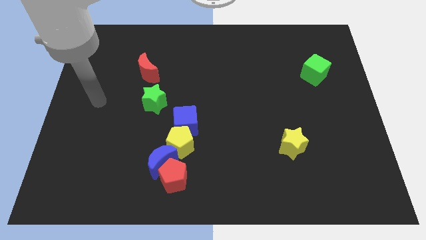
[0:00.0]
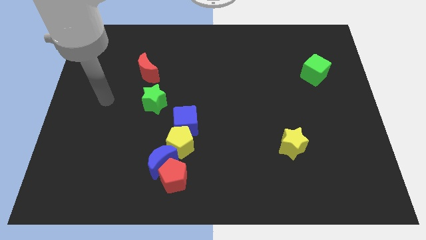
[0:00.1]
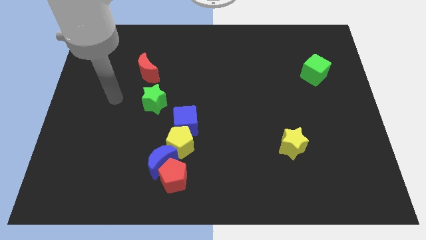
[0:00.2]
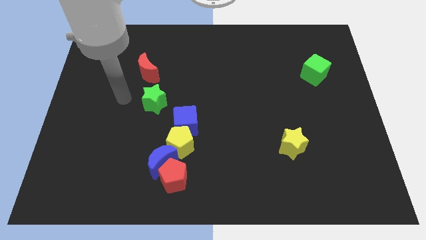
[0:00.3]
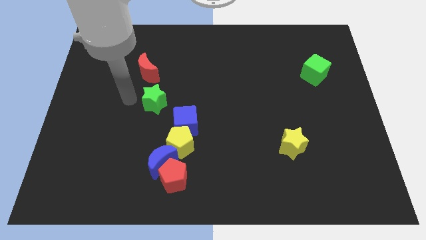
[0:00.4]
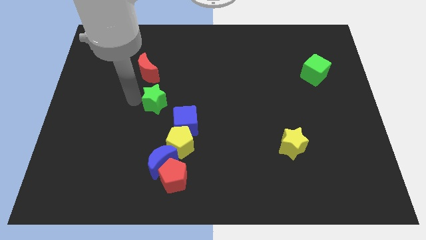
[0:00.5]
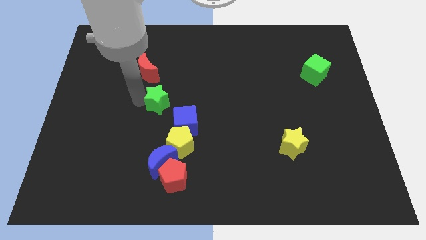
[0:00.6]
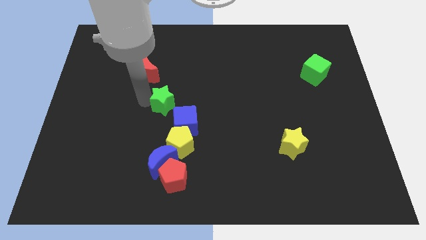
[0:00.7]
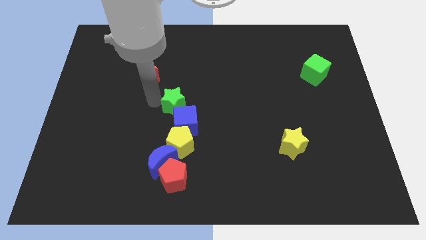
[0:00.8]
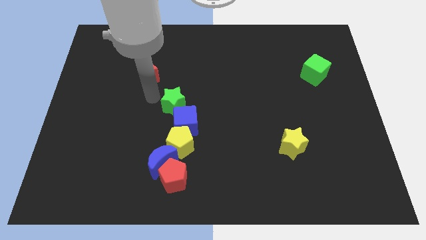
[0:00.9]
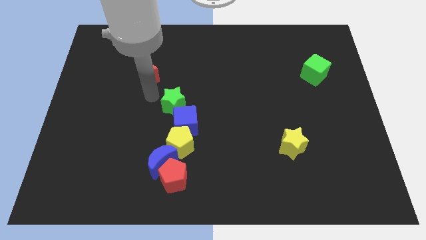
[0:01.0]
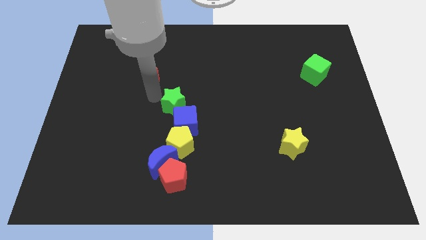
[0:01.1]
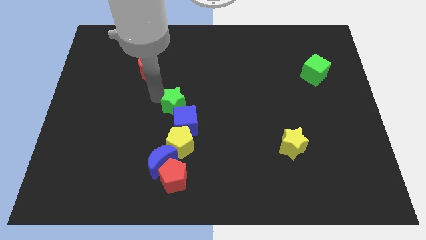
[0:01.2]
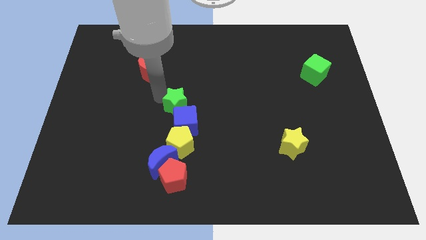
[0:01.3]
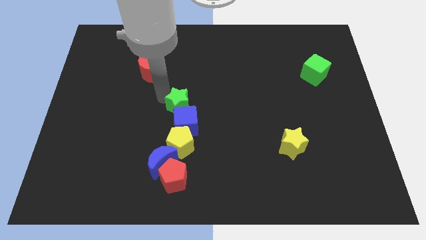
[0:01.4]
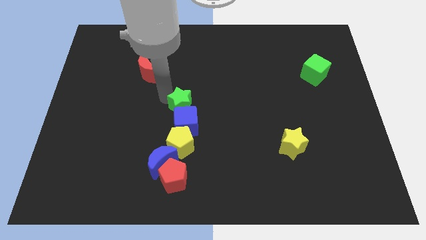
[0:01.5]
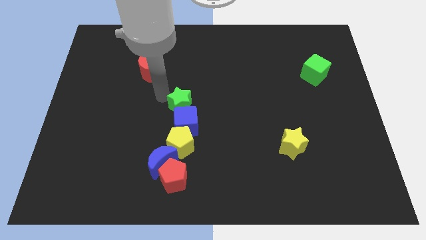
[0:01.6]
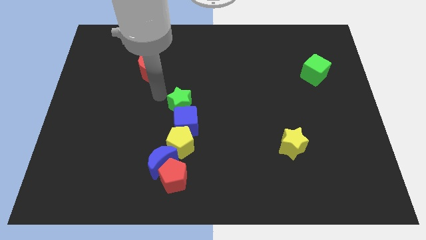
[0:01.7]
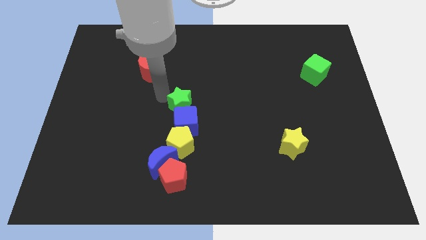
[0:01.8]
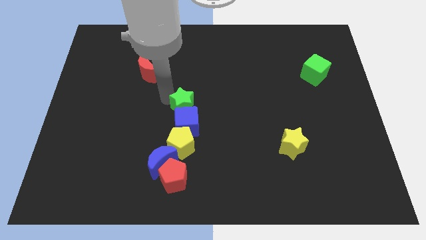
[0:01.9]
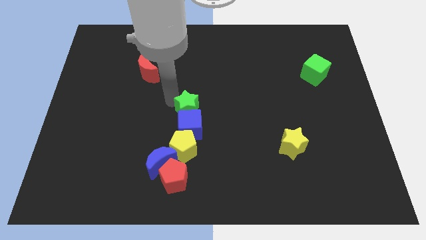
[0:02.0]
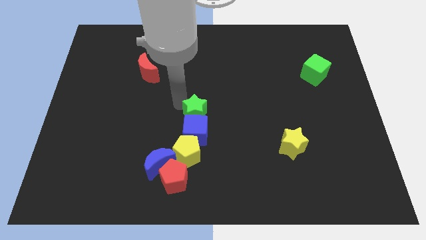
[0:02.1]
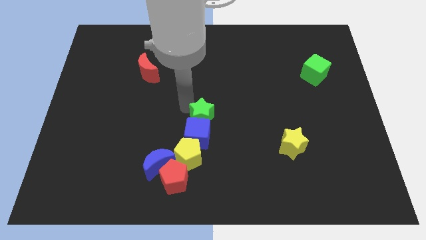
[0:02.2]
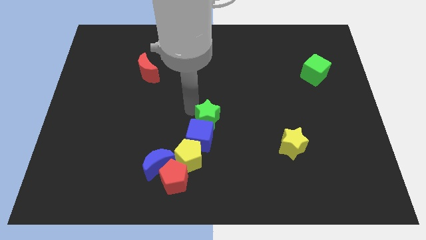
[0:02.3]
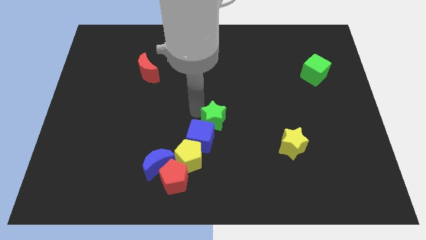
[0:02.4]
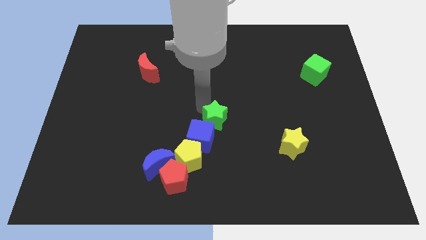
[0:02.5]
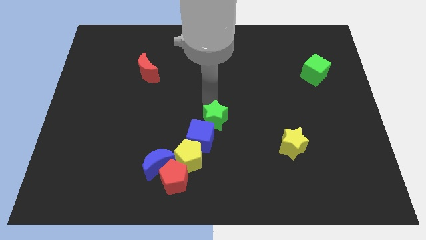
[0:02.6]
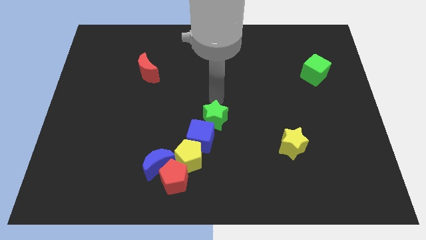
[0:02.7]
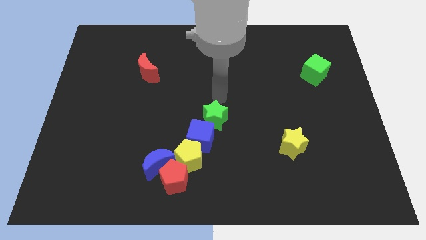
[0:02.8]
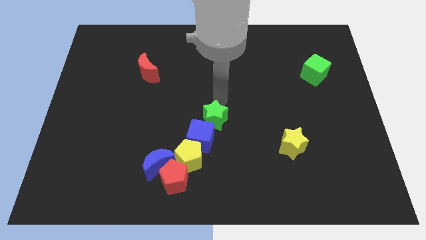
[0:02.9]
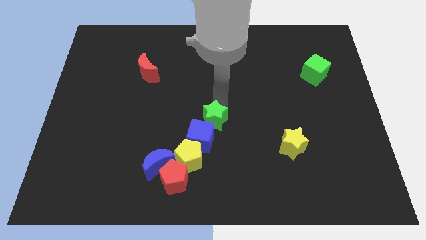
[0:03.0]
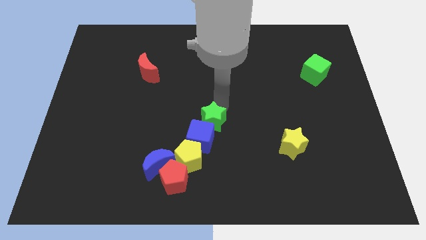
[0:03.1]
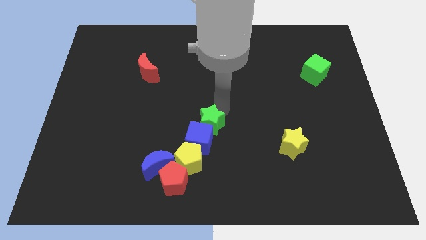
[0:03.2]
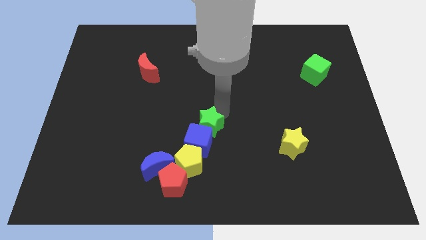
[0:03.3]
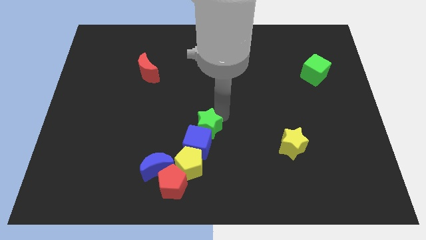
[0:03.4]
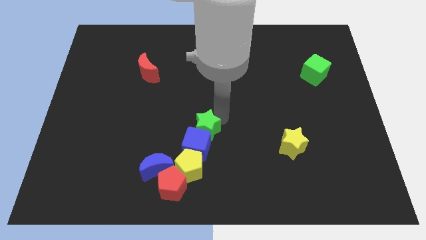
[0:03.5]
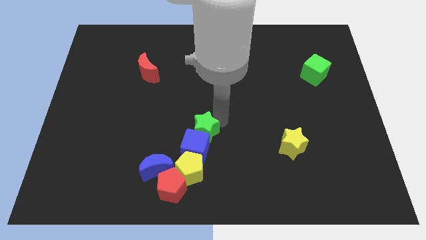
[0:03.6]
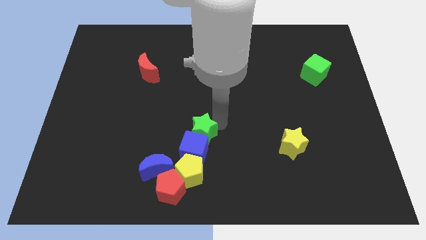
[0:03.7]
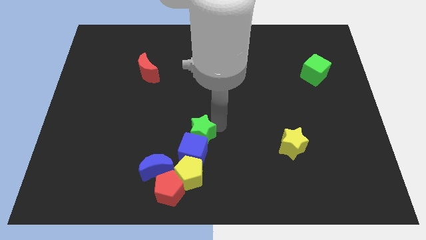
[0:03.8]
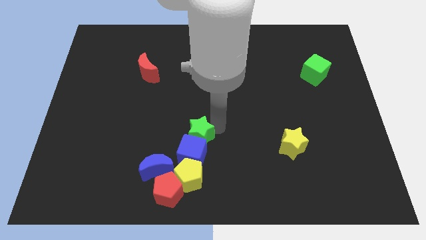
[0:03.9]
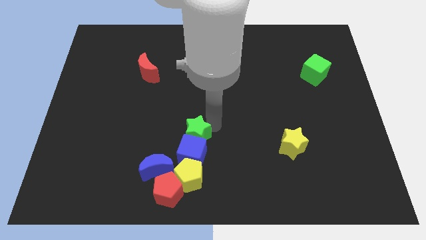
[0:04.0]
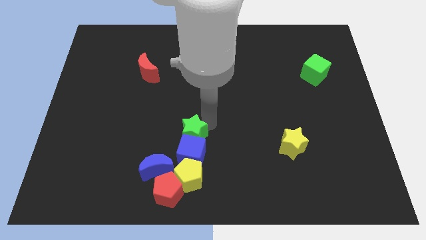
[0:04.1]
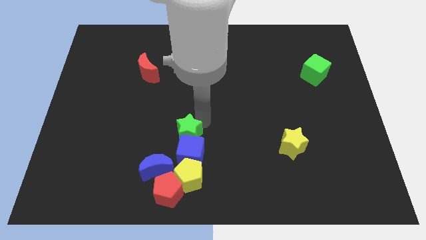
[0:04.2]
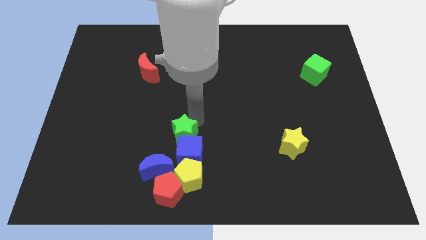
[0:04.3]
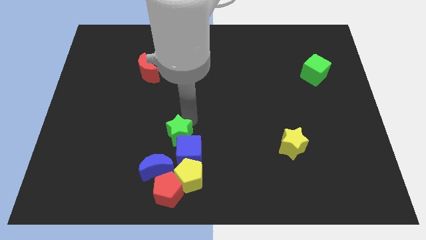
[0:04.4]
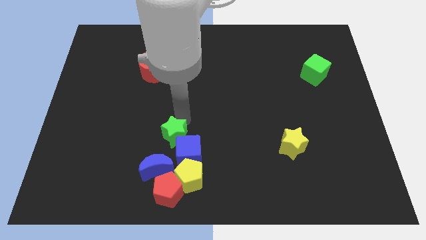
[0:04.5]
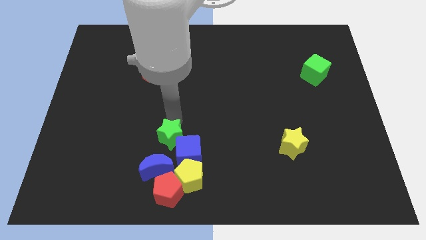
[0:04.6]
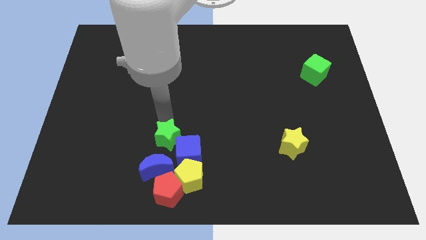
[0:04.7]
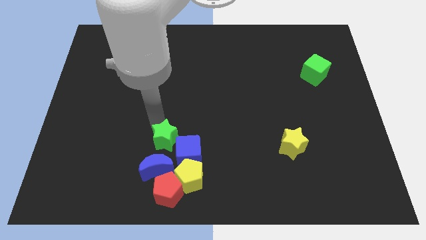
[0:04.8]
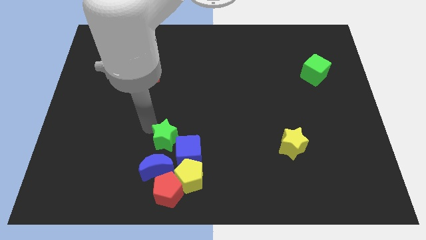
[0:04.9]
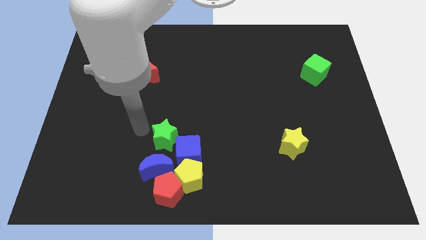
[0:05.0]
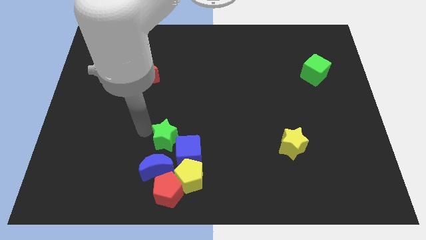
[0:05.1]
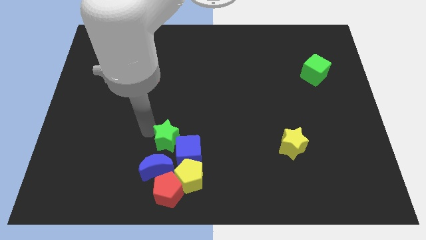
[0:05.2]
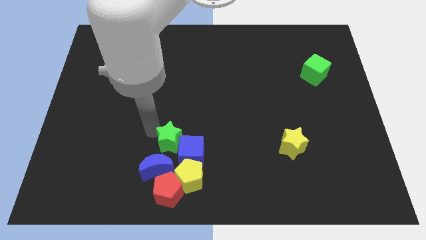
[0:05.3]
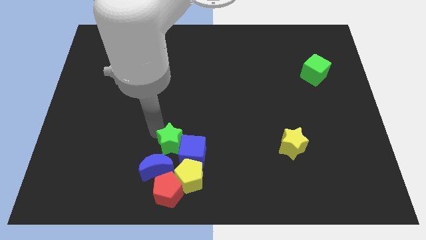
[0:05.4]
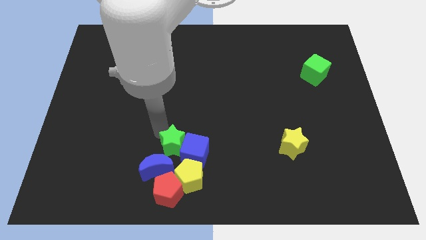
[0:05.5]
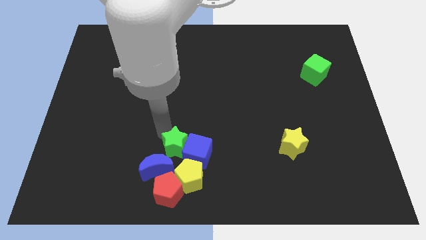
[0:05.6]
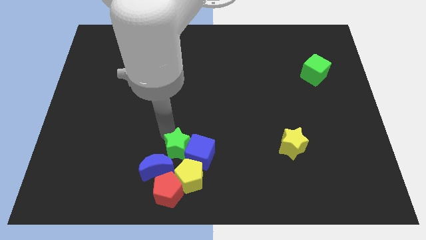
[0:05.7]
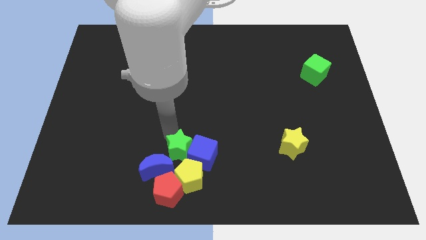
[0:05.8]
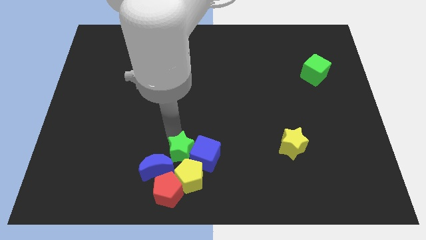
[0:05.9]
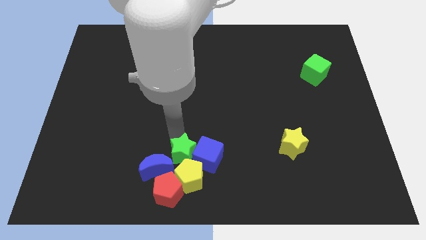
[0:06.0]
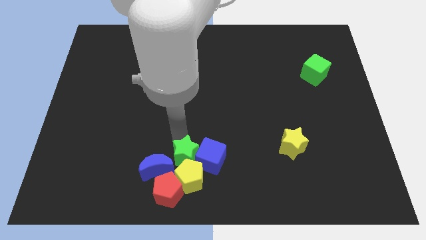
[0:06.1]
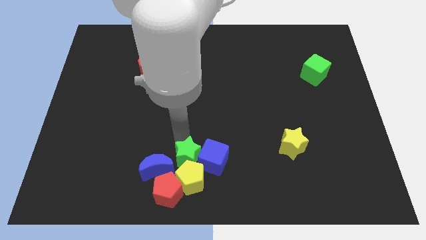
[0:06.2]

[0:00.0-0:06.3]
slide the green star to the bottom
